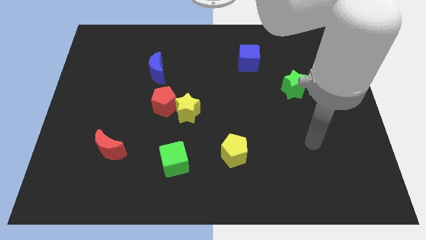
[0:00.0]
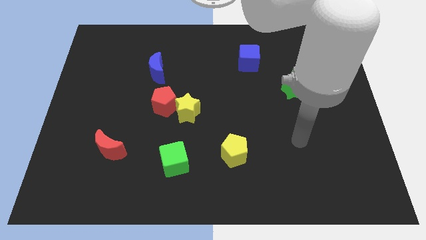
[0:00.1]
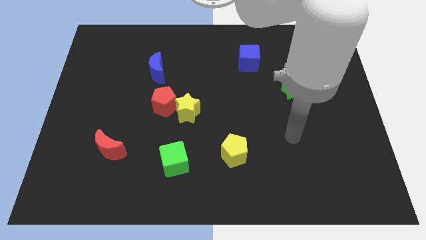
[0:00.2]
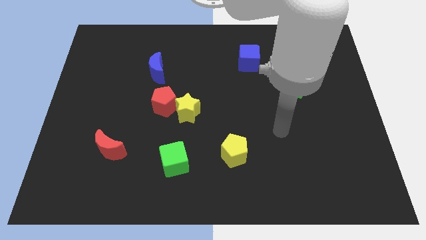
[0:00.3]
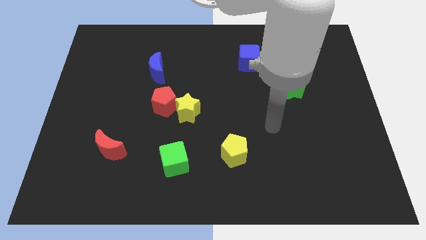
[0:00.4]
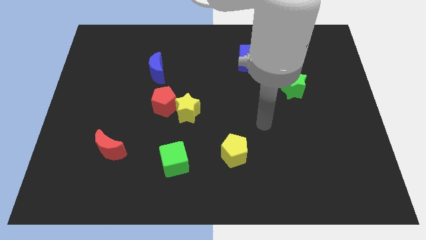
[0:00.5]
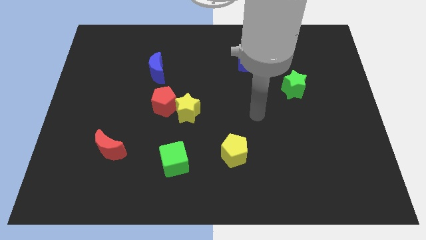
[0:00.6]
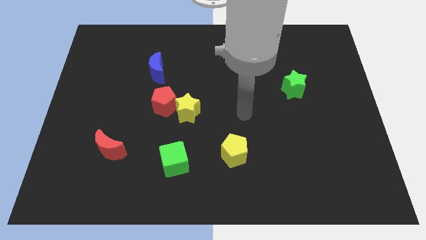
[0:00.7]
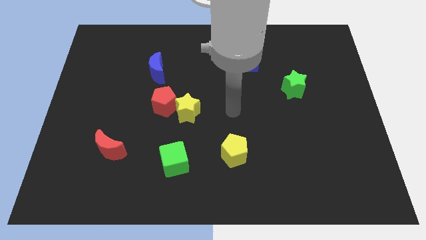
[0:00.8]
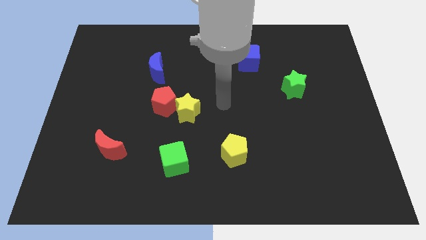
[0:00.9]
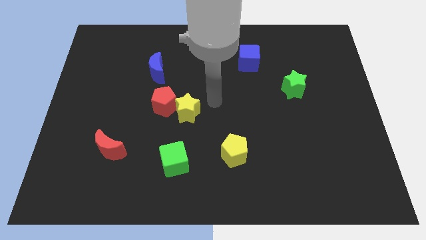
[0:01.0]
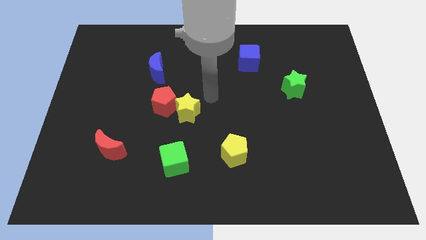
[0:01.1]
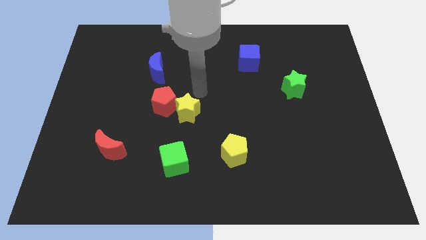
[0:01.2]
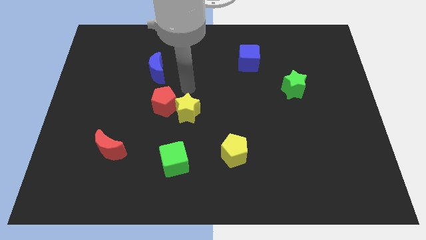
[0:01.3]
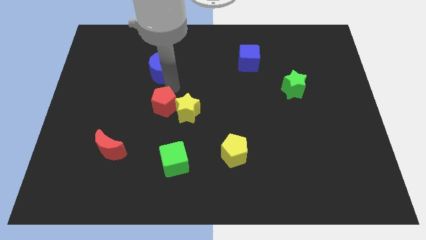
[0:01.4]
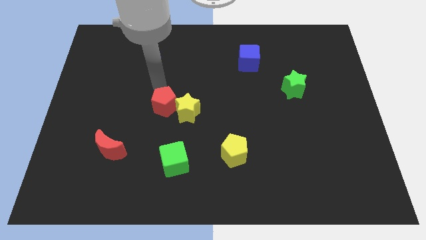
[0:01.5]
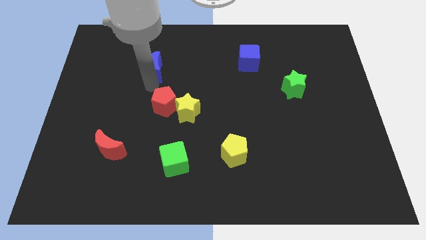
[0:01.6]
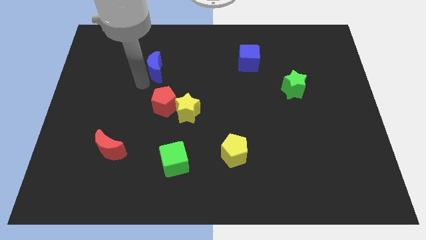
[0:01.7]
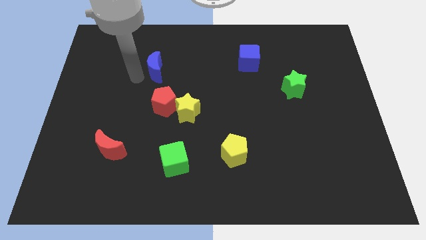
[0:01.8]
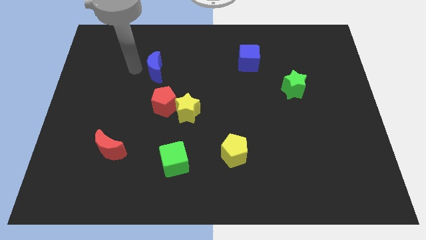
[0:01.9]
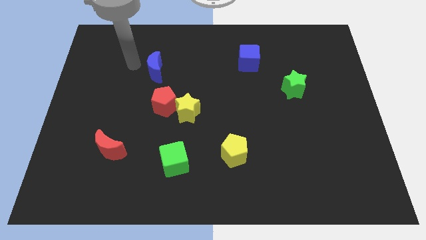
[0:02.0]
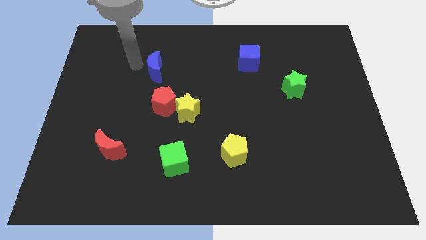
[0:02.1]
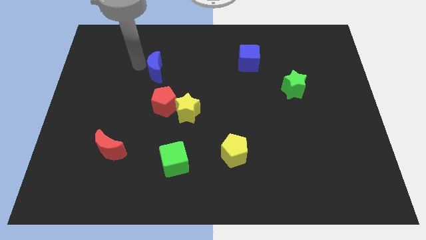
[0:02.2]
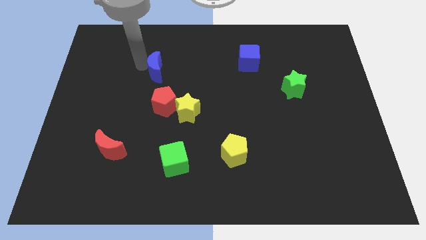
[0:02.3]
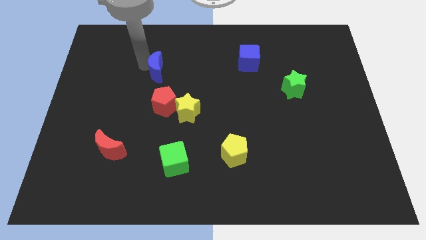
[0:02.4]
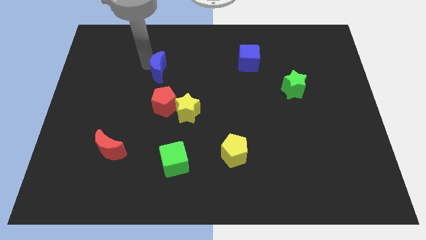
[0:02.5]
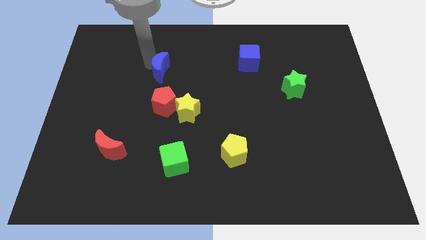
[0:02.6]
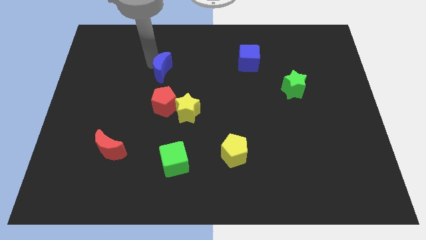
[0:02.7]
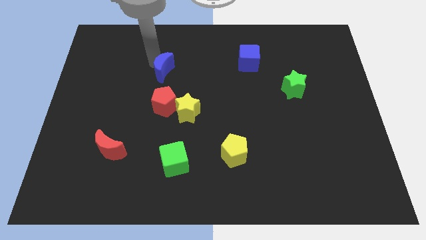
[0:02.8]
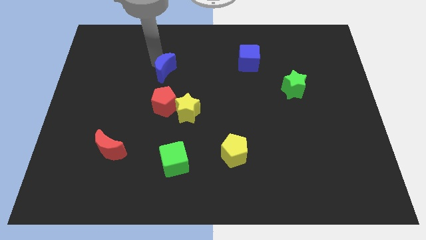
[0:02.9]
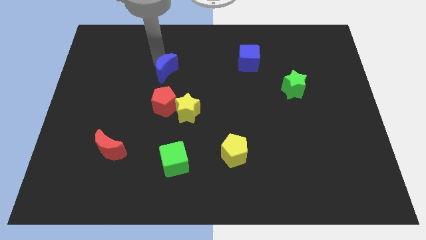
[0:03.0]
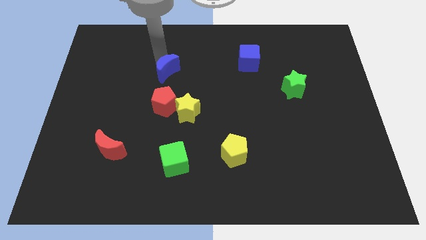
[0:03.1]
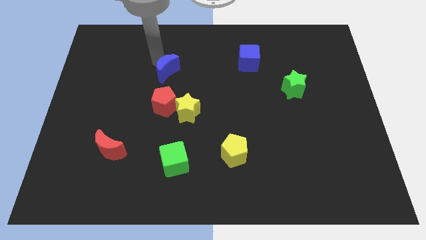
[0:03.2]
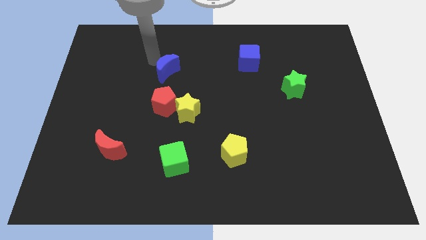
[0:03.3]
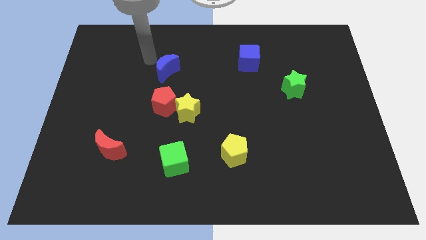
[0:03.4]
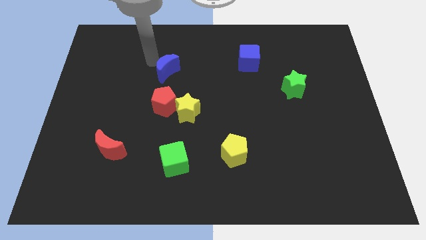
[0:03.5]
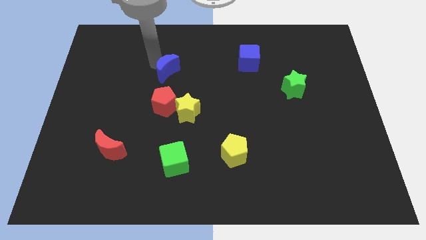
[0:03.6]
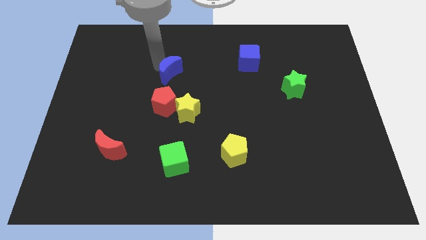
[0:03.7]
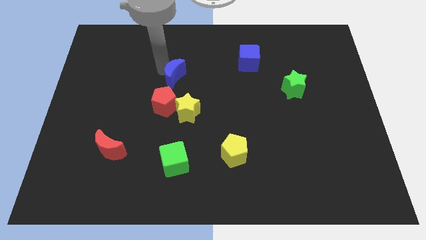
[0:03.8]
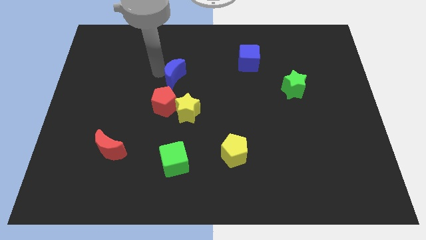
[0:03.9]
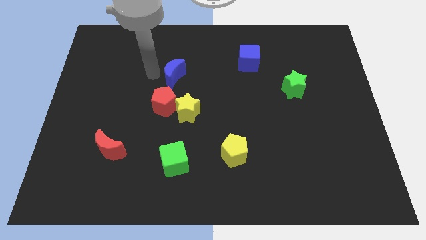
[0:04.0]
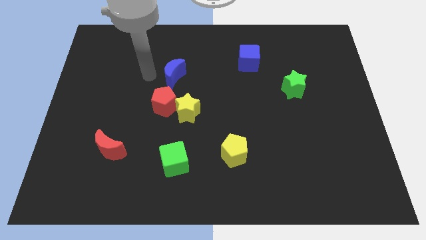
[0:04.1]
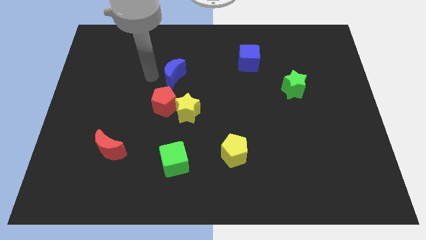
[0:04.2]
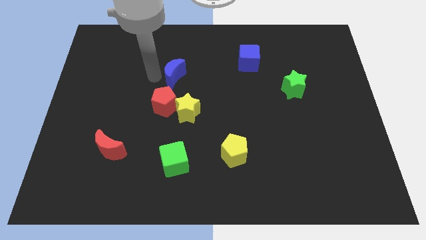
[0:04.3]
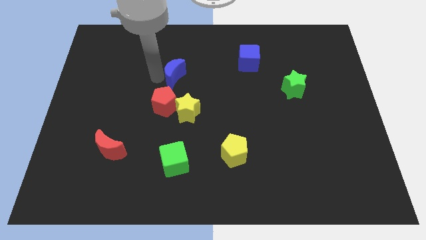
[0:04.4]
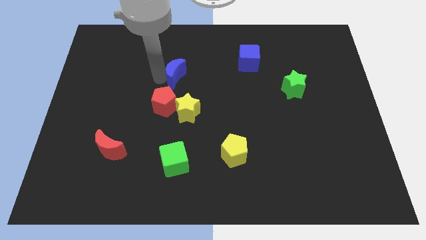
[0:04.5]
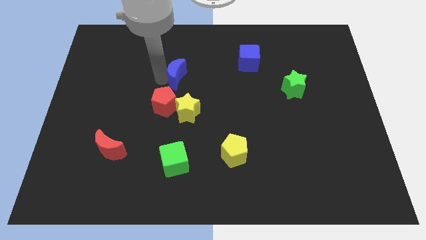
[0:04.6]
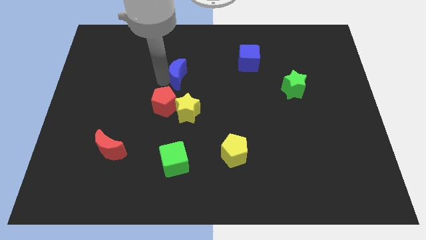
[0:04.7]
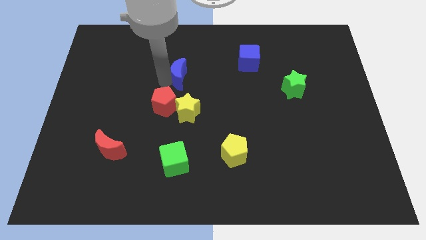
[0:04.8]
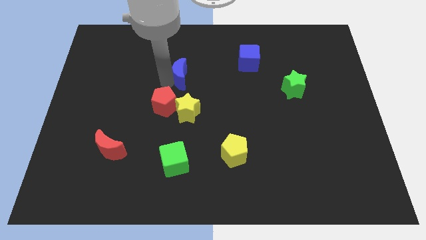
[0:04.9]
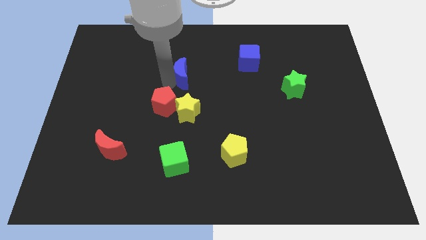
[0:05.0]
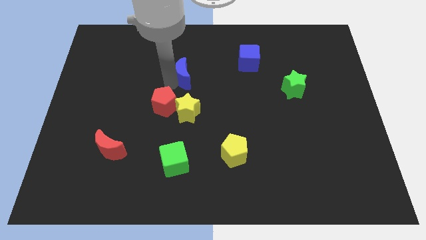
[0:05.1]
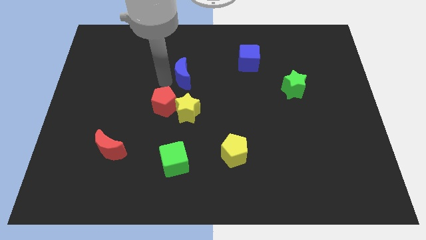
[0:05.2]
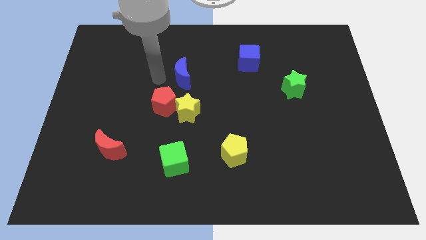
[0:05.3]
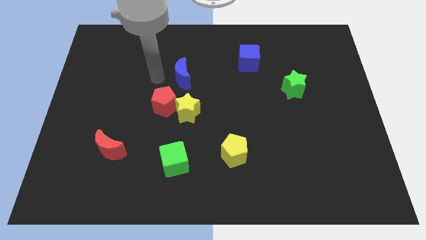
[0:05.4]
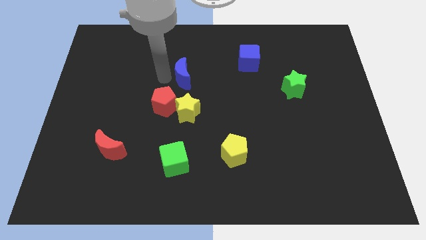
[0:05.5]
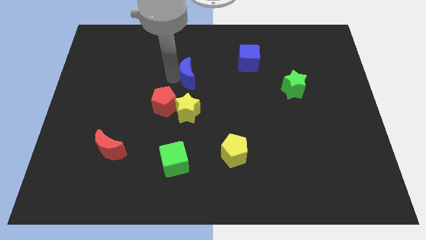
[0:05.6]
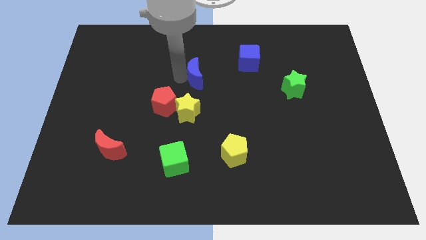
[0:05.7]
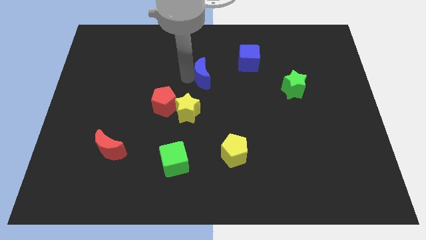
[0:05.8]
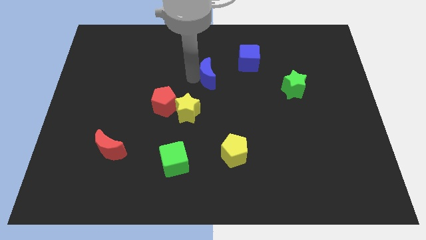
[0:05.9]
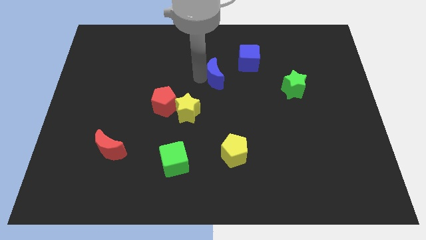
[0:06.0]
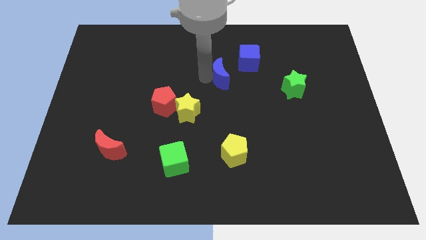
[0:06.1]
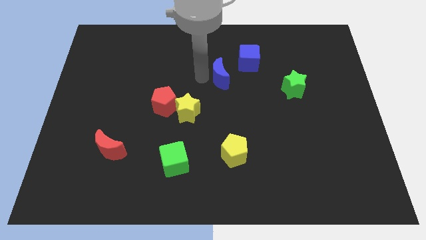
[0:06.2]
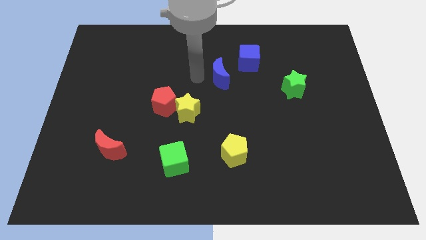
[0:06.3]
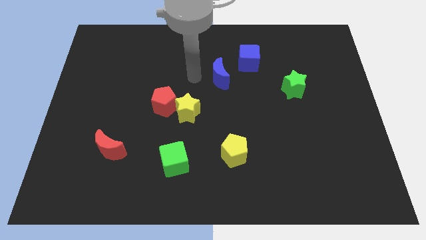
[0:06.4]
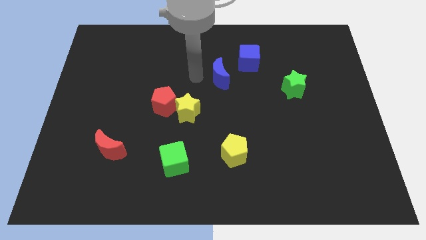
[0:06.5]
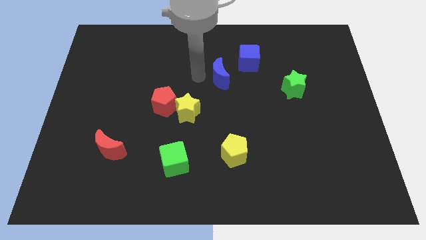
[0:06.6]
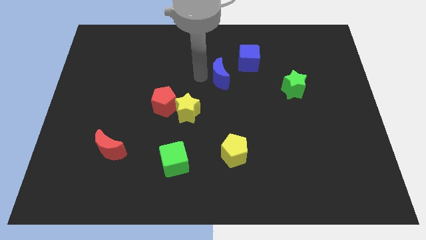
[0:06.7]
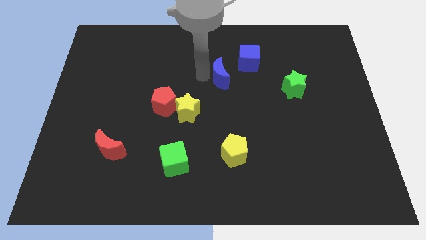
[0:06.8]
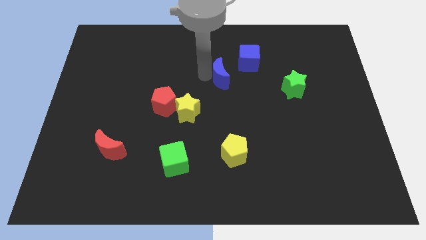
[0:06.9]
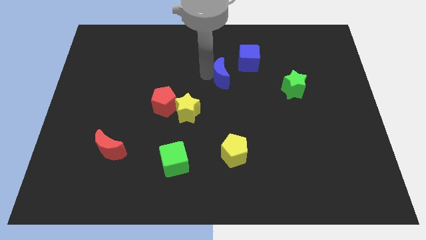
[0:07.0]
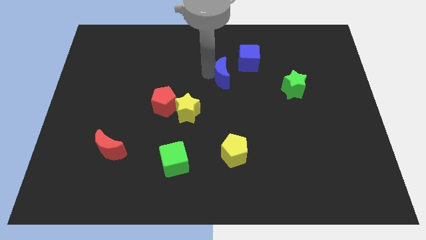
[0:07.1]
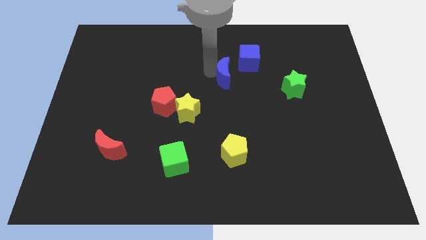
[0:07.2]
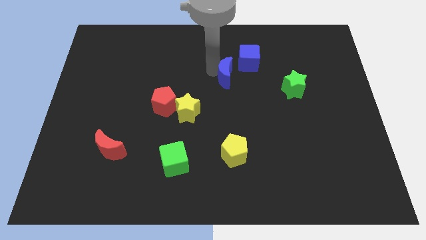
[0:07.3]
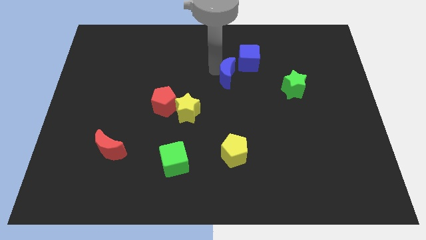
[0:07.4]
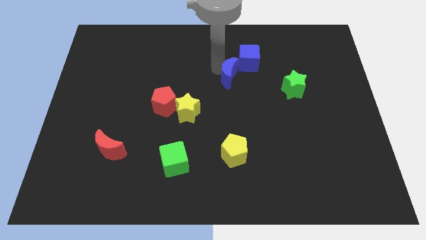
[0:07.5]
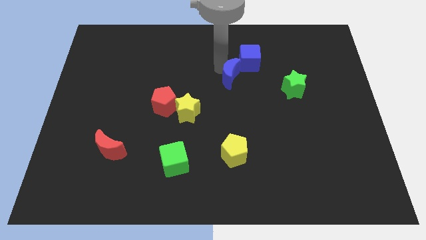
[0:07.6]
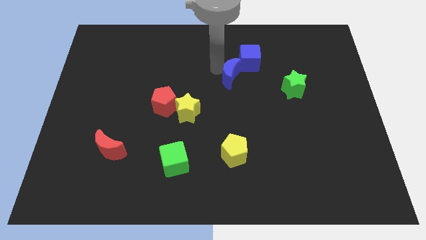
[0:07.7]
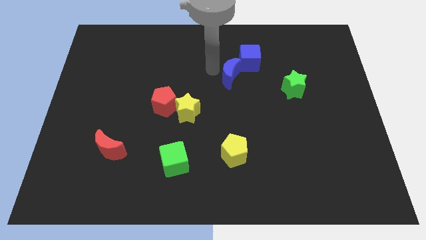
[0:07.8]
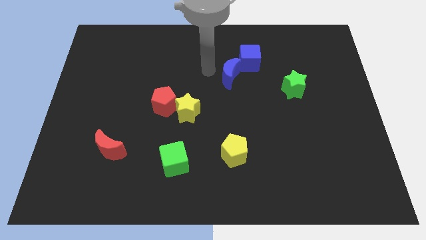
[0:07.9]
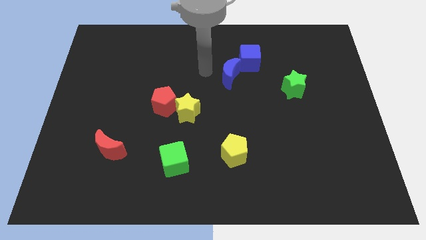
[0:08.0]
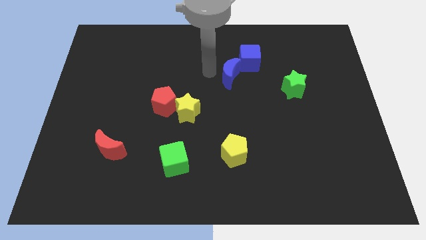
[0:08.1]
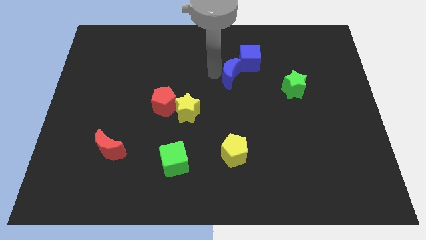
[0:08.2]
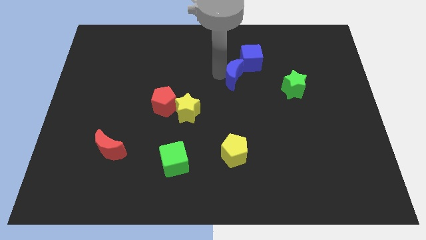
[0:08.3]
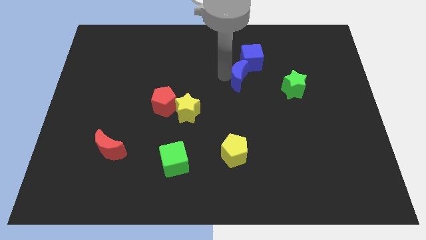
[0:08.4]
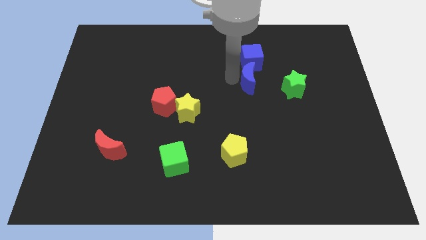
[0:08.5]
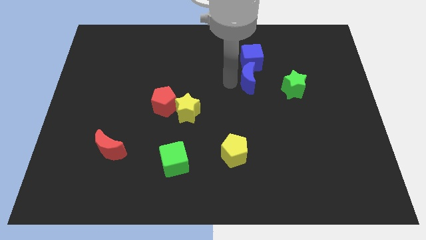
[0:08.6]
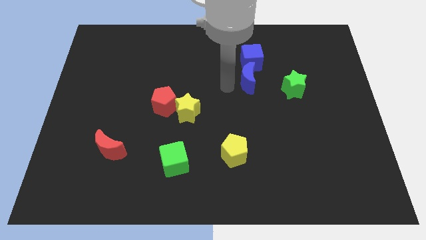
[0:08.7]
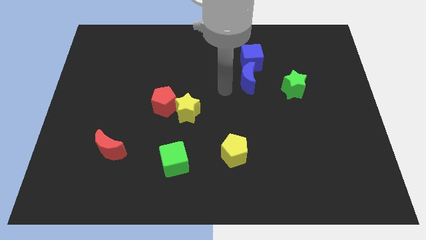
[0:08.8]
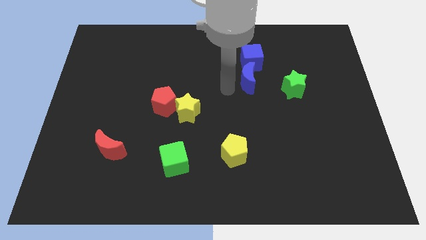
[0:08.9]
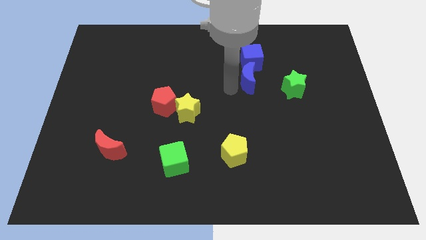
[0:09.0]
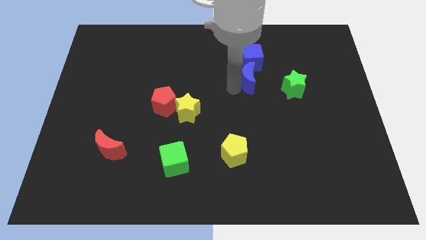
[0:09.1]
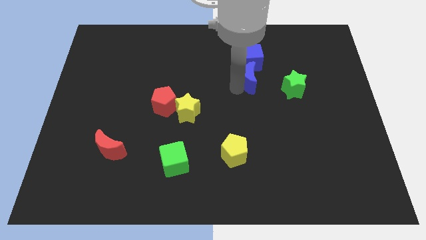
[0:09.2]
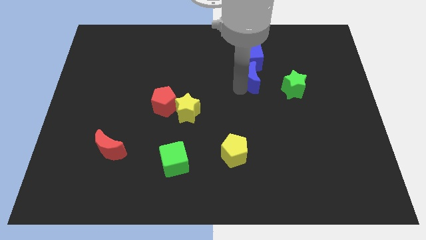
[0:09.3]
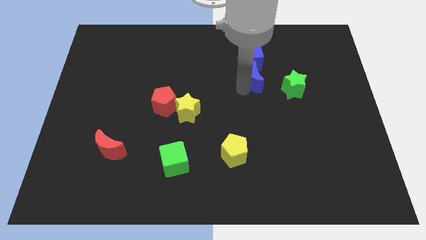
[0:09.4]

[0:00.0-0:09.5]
push the blue moon diagonally up and to the left of the green star
